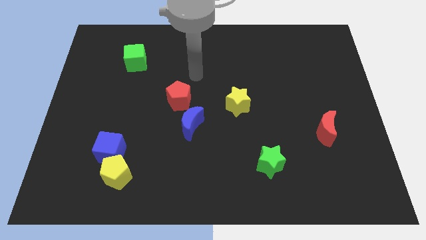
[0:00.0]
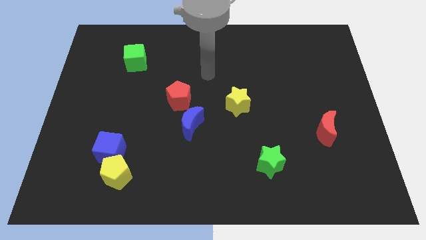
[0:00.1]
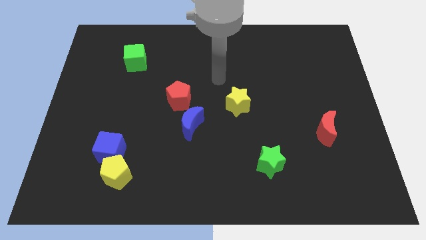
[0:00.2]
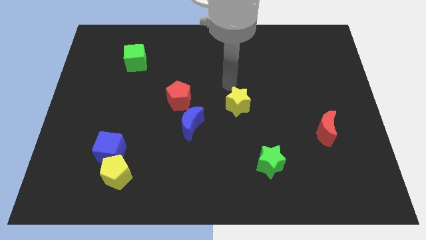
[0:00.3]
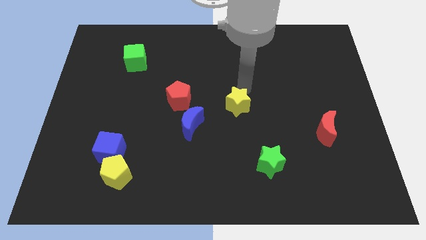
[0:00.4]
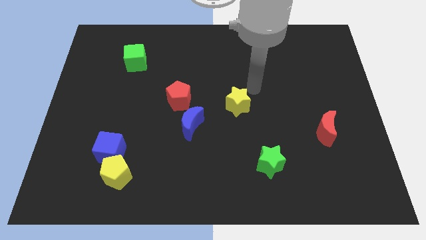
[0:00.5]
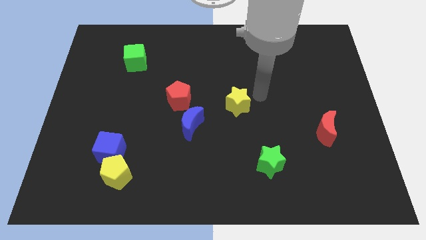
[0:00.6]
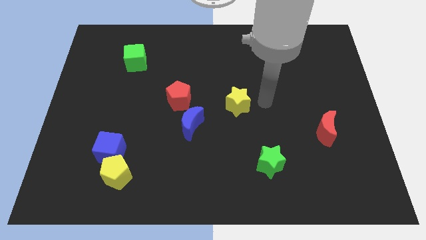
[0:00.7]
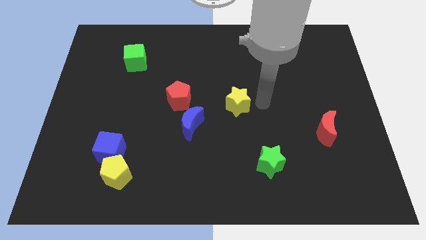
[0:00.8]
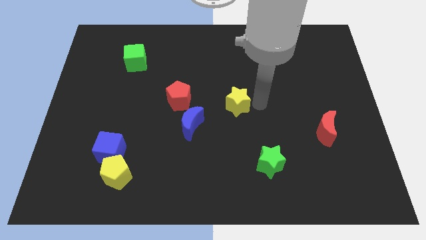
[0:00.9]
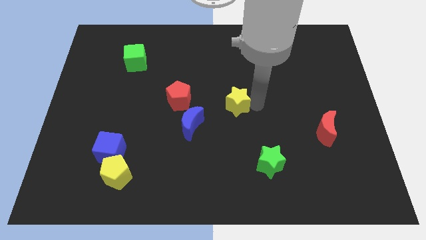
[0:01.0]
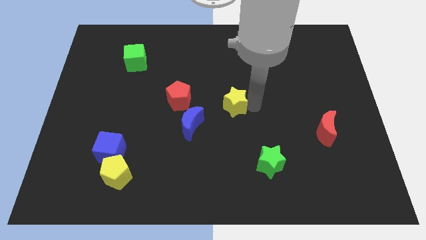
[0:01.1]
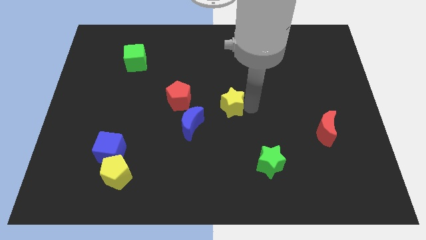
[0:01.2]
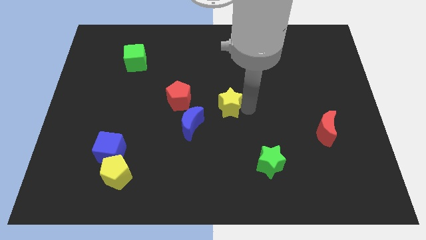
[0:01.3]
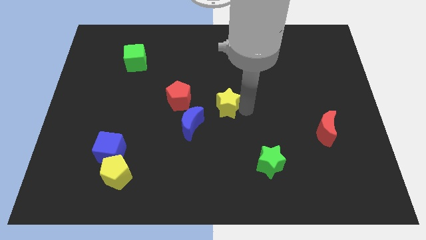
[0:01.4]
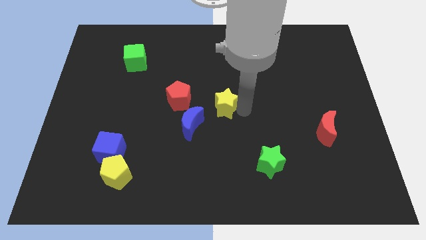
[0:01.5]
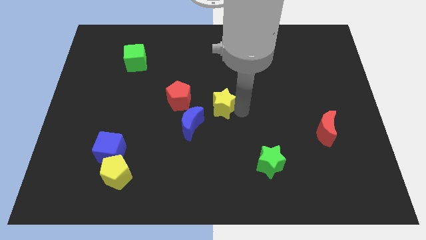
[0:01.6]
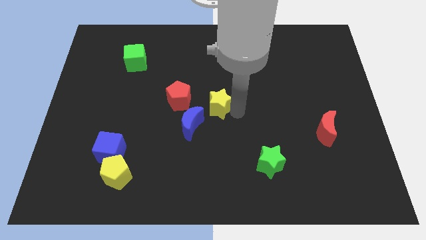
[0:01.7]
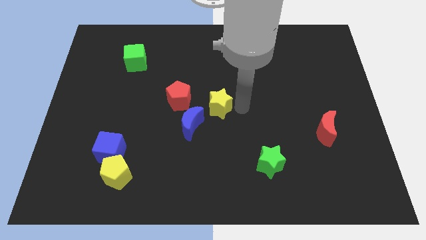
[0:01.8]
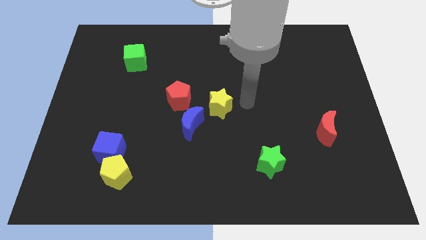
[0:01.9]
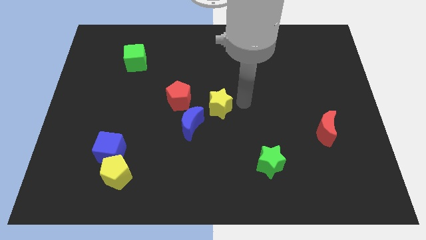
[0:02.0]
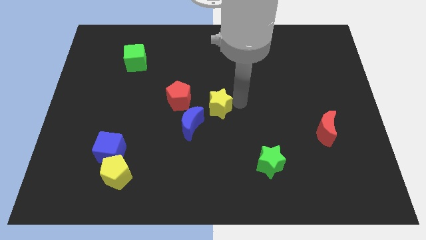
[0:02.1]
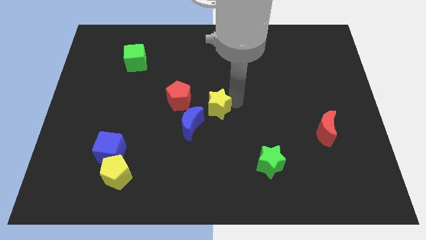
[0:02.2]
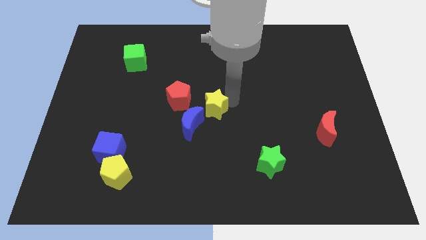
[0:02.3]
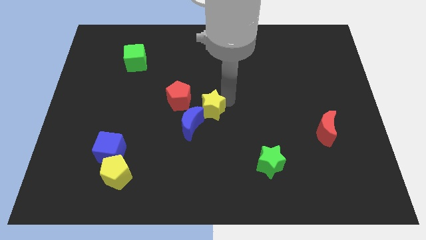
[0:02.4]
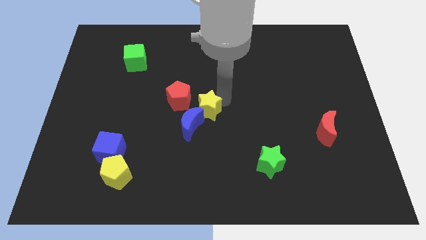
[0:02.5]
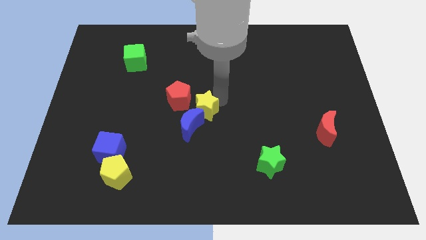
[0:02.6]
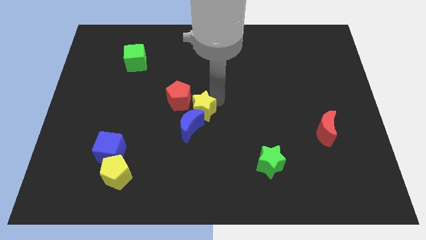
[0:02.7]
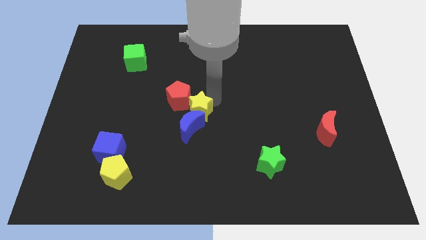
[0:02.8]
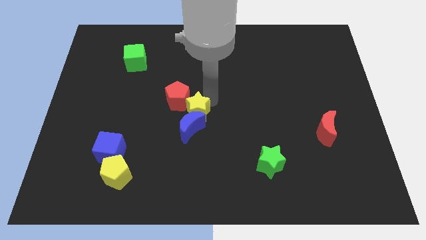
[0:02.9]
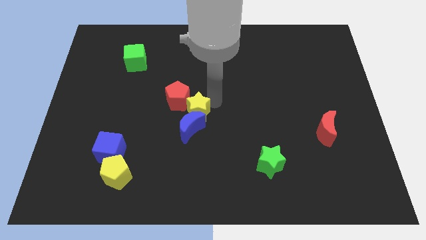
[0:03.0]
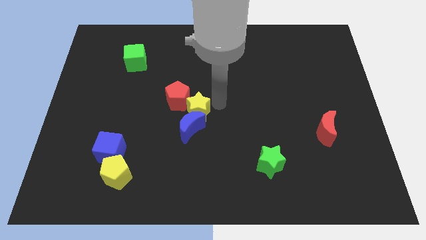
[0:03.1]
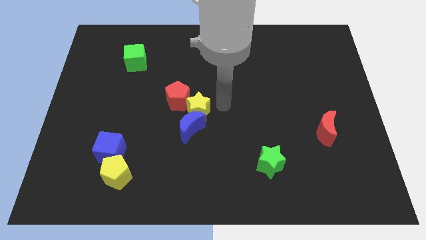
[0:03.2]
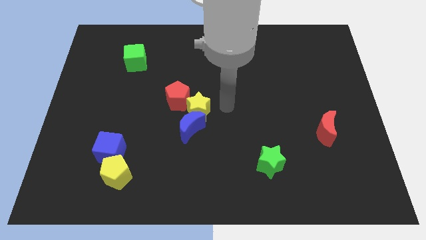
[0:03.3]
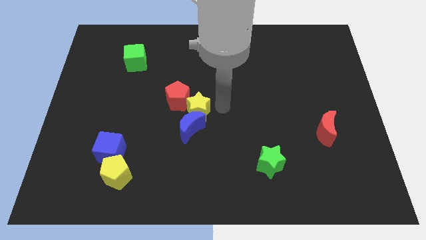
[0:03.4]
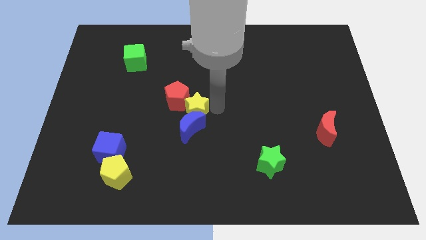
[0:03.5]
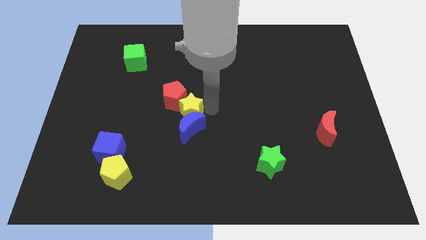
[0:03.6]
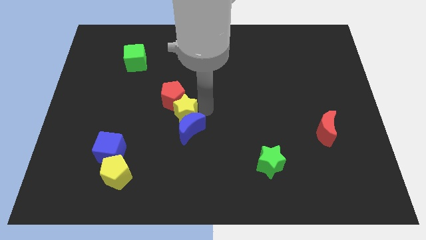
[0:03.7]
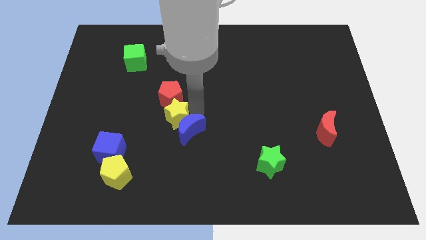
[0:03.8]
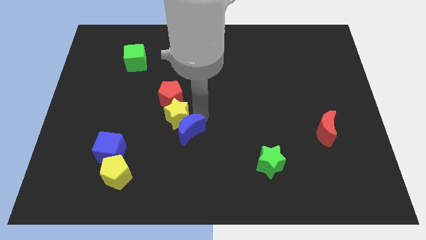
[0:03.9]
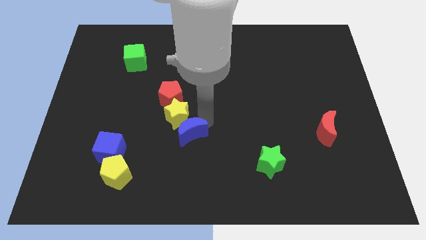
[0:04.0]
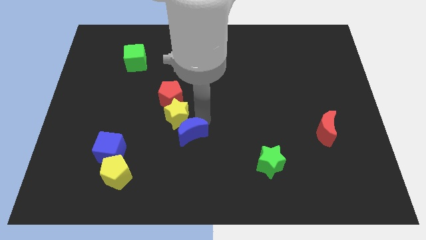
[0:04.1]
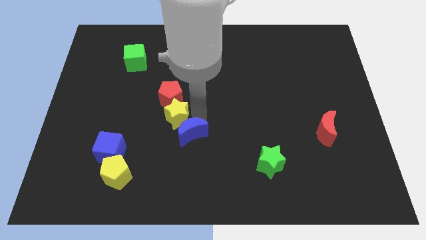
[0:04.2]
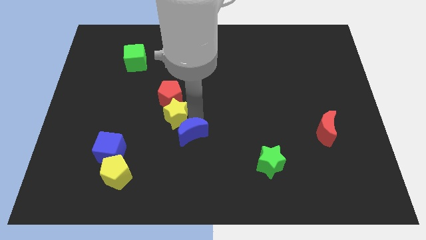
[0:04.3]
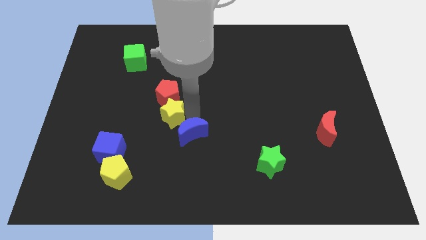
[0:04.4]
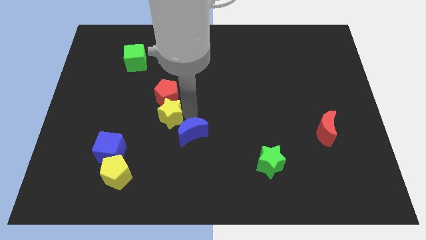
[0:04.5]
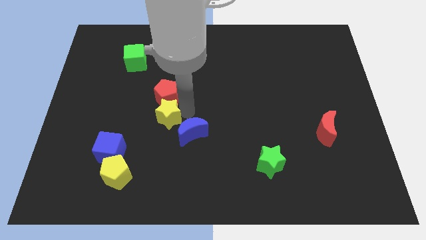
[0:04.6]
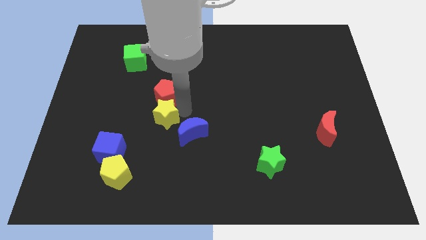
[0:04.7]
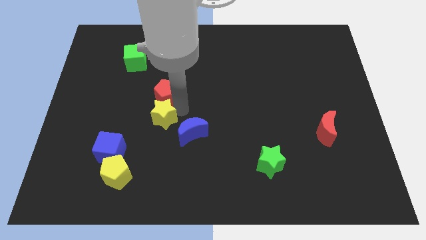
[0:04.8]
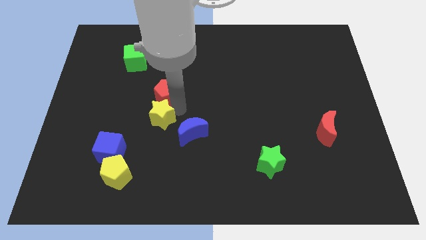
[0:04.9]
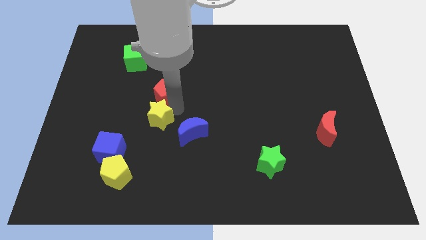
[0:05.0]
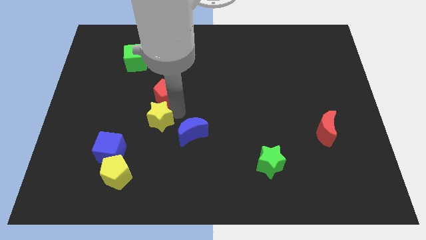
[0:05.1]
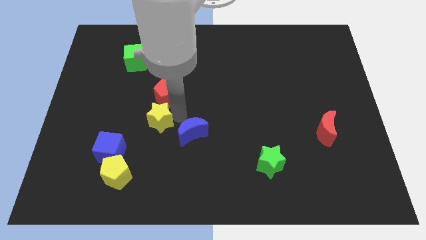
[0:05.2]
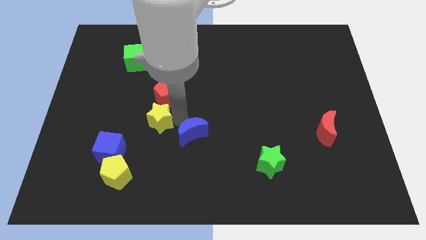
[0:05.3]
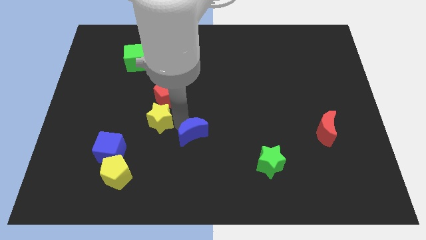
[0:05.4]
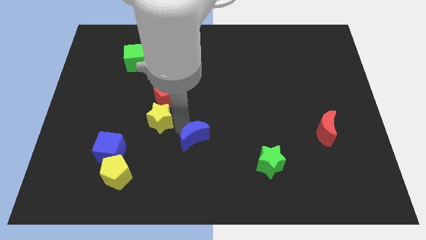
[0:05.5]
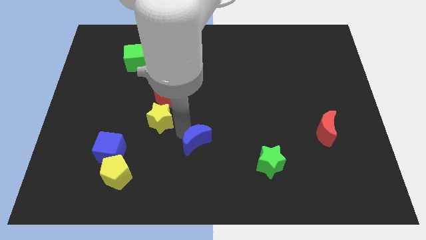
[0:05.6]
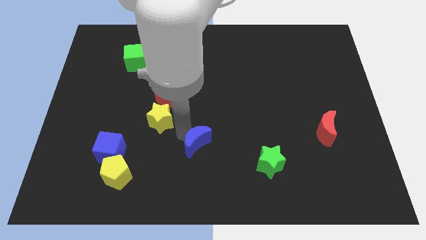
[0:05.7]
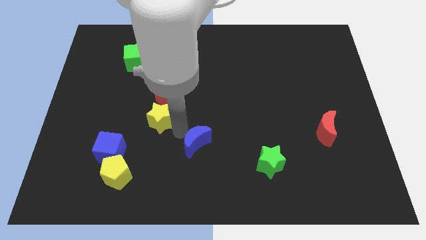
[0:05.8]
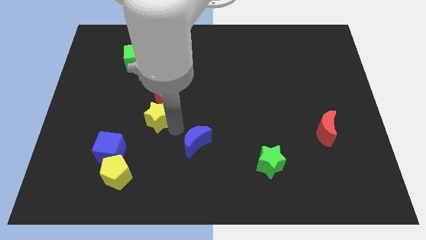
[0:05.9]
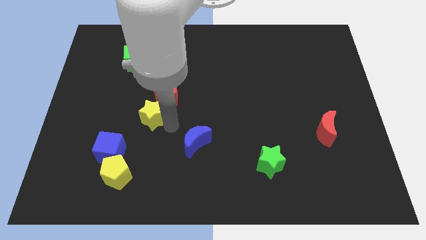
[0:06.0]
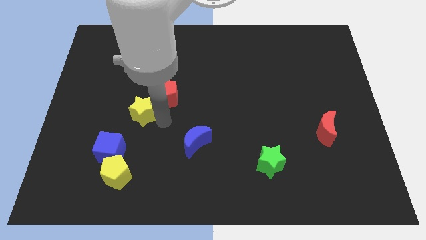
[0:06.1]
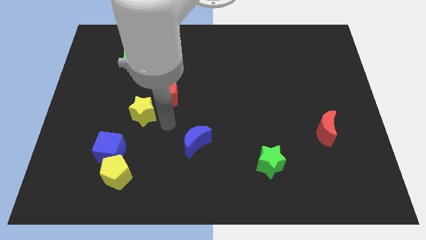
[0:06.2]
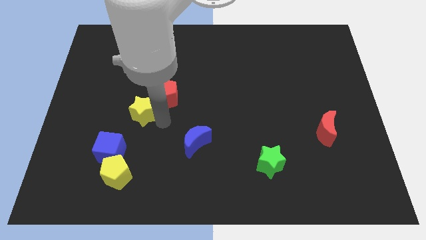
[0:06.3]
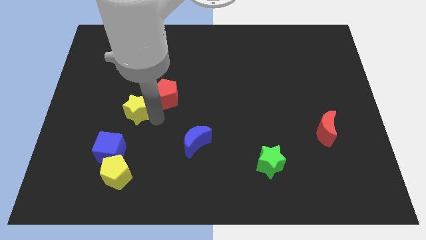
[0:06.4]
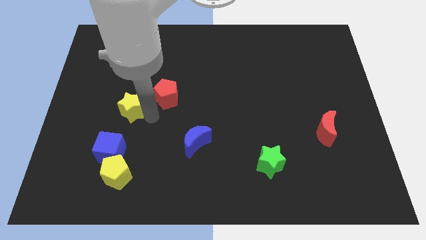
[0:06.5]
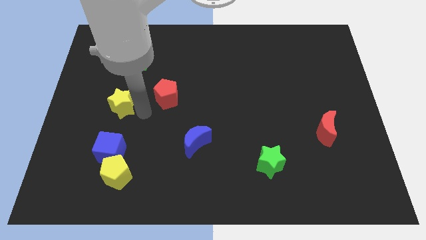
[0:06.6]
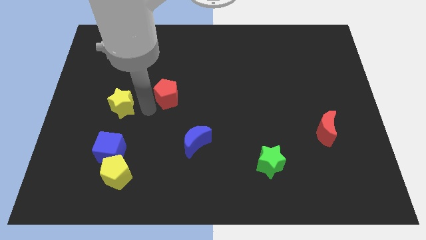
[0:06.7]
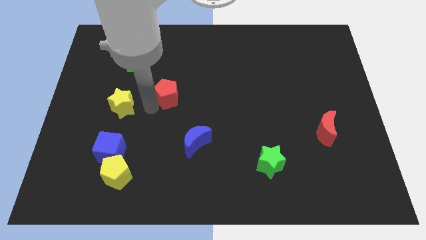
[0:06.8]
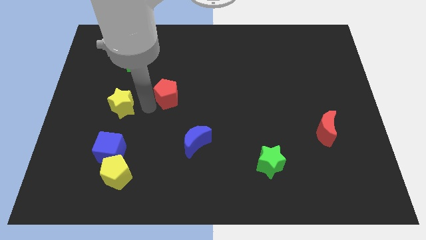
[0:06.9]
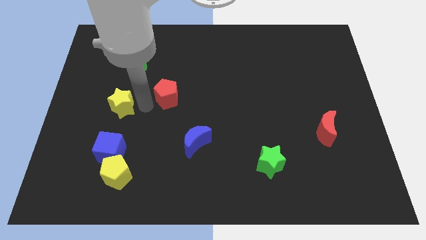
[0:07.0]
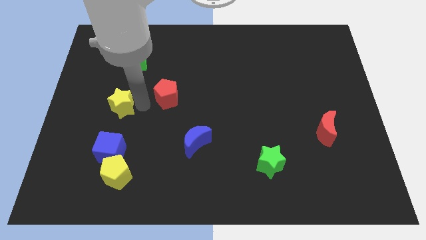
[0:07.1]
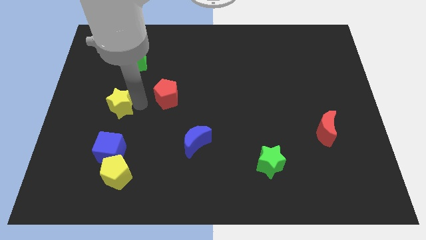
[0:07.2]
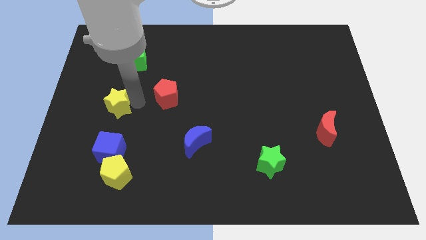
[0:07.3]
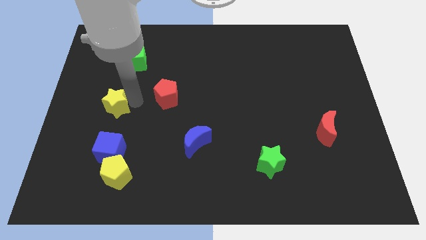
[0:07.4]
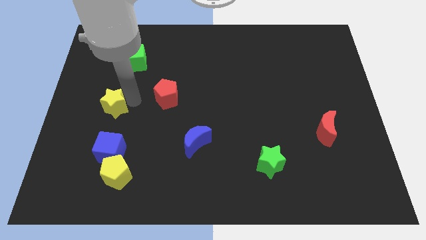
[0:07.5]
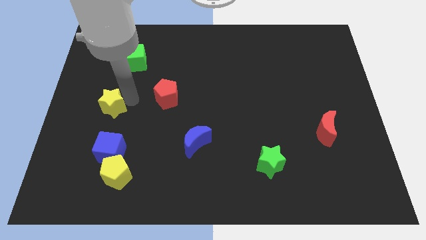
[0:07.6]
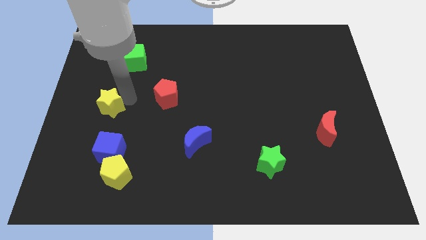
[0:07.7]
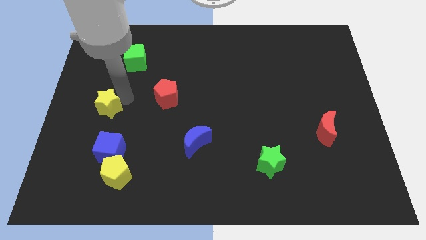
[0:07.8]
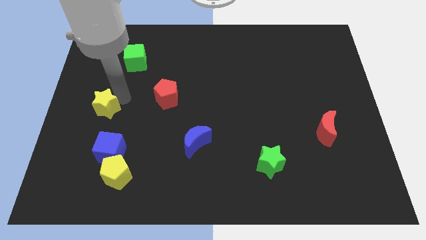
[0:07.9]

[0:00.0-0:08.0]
push the yellow star to the left side of the board
